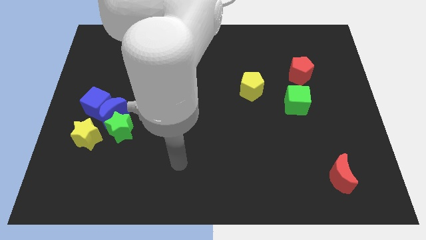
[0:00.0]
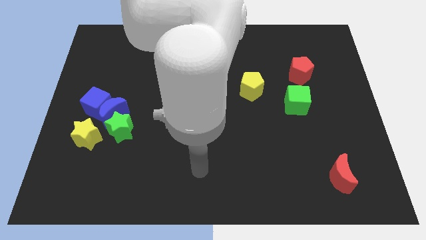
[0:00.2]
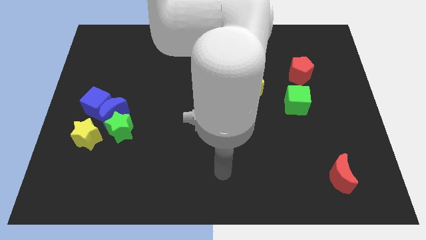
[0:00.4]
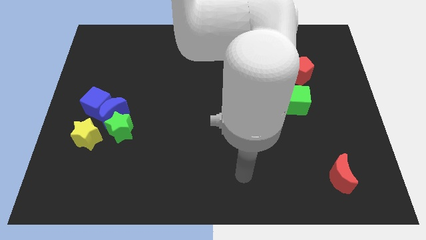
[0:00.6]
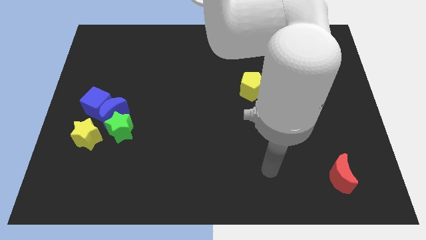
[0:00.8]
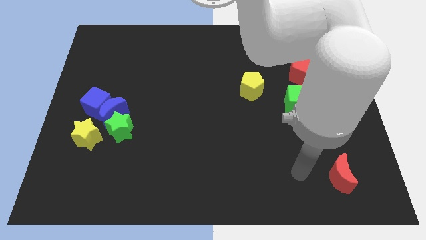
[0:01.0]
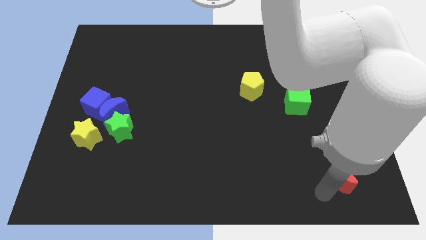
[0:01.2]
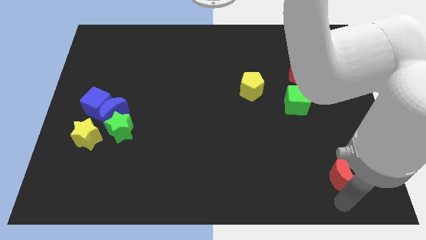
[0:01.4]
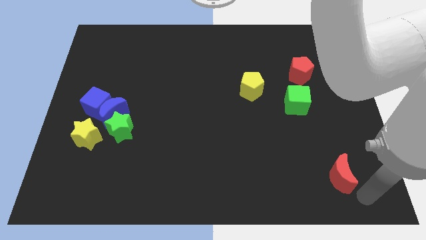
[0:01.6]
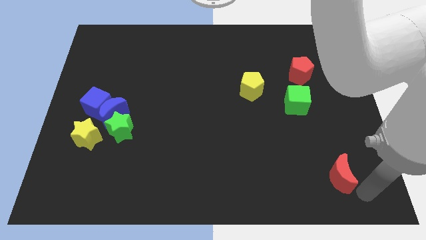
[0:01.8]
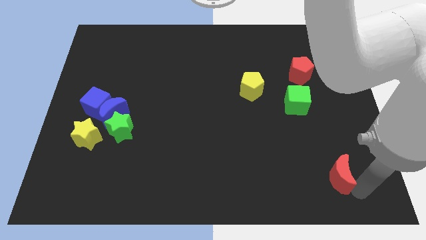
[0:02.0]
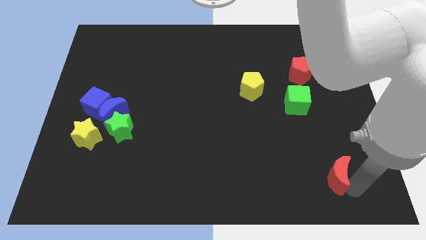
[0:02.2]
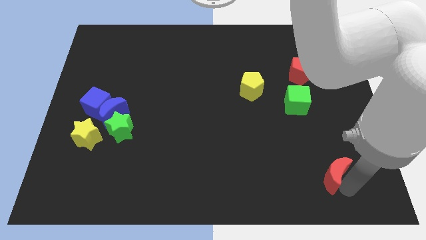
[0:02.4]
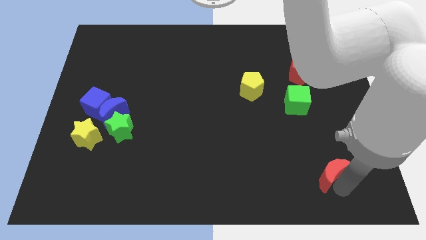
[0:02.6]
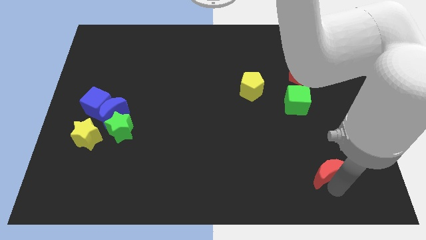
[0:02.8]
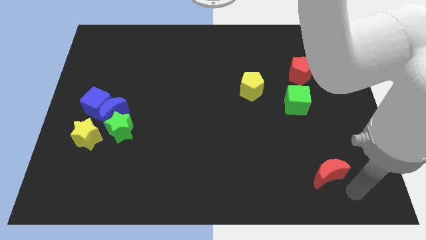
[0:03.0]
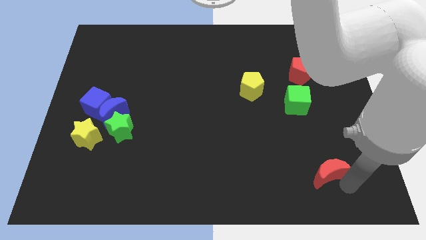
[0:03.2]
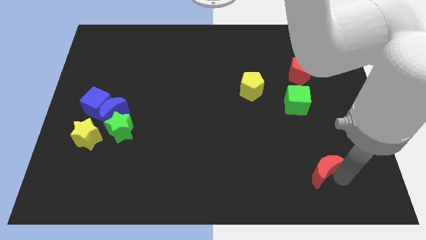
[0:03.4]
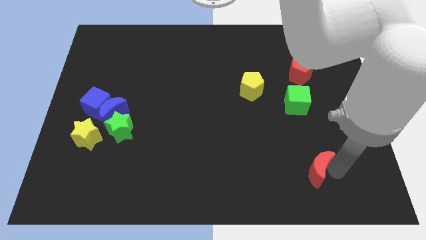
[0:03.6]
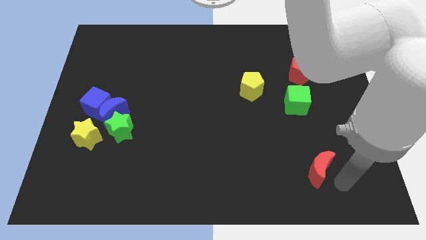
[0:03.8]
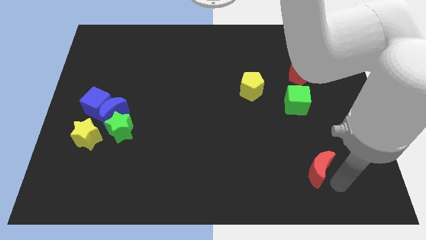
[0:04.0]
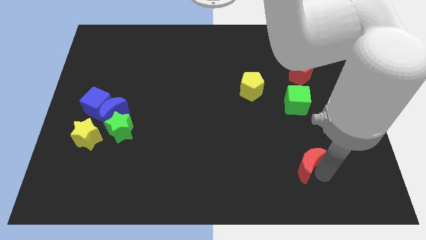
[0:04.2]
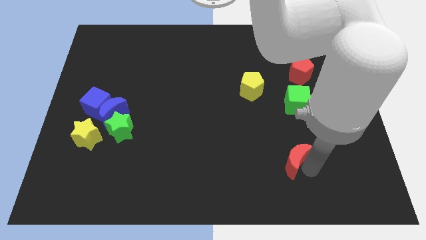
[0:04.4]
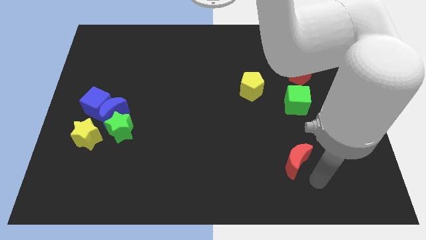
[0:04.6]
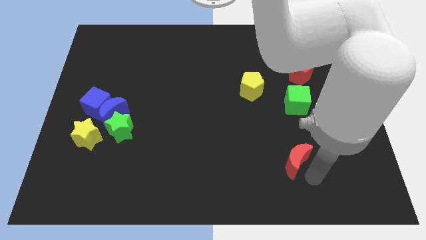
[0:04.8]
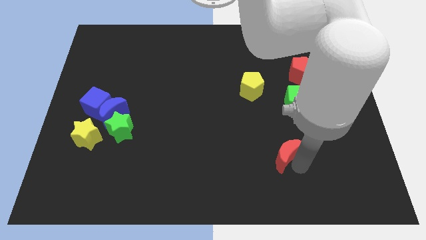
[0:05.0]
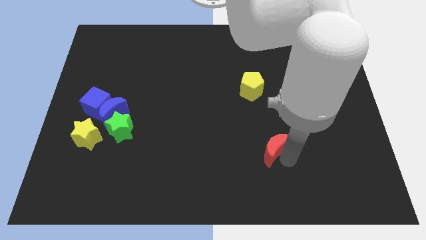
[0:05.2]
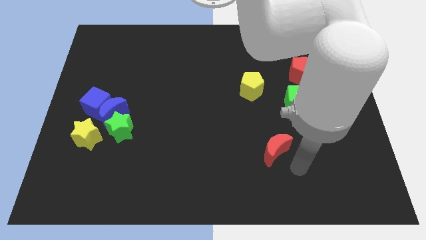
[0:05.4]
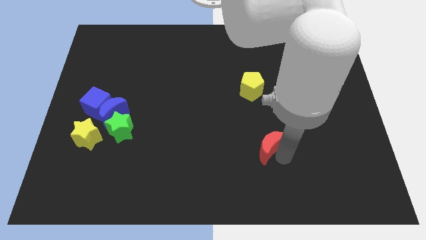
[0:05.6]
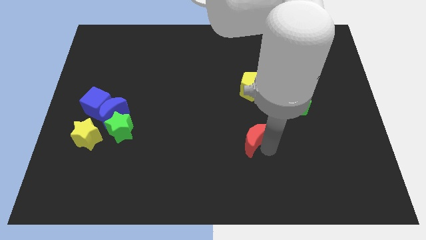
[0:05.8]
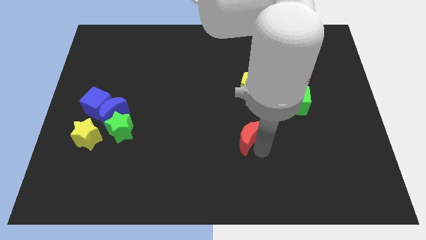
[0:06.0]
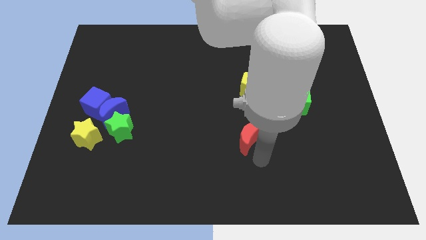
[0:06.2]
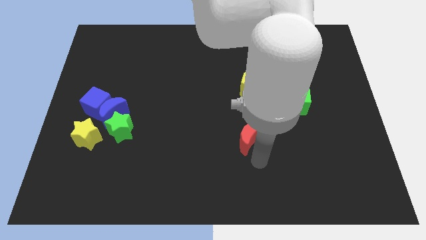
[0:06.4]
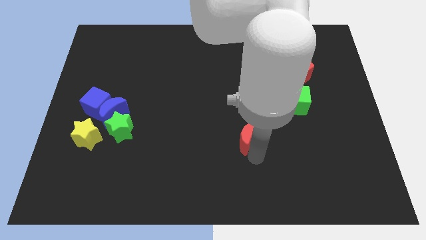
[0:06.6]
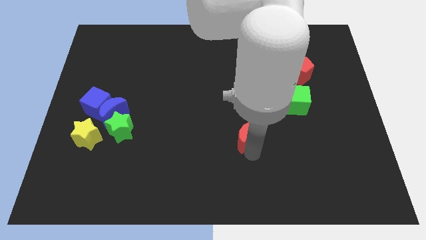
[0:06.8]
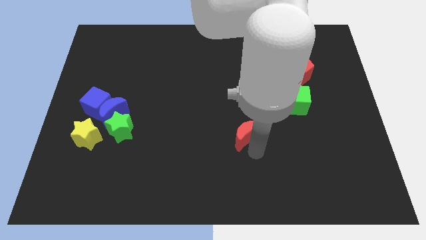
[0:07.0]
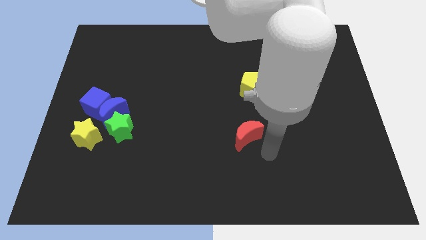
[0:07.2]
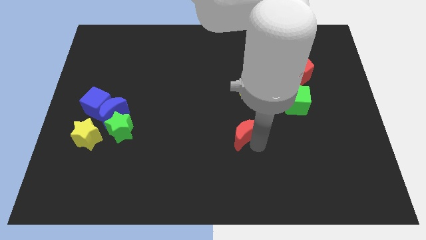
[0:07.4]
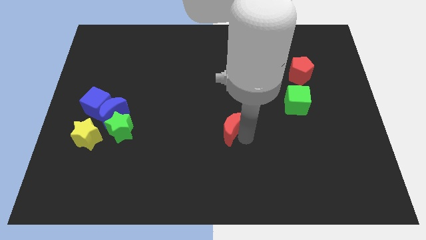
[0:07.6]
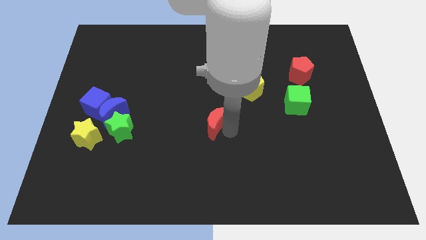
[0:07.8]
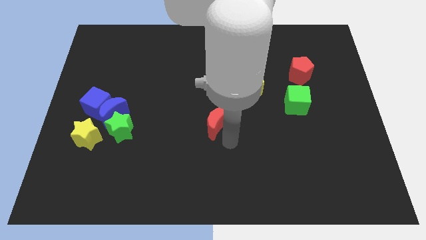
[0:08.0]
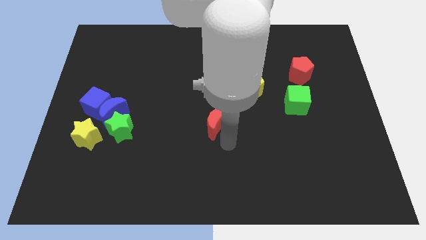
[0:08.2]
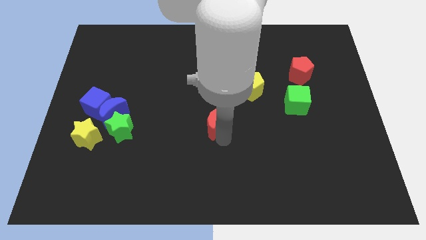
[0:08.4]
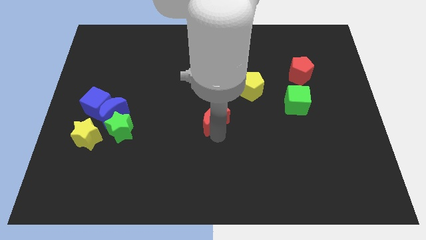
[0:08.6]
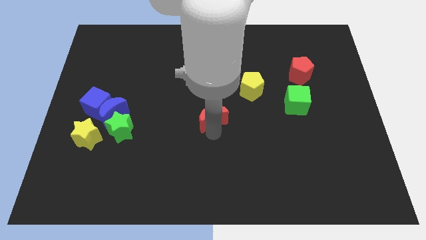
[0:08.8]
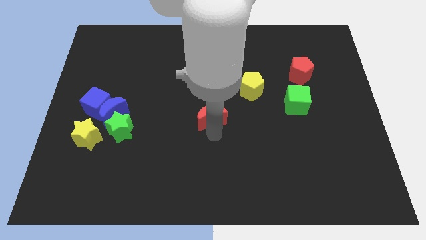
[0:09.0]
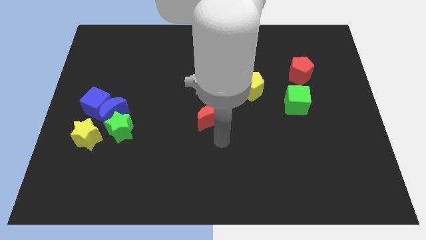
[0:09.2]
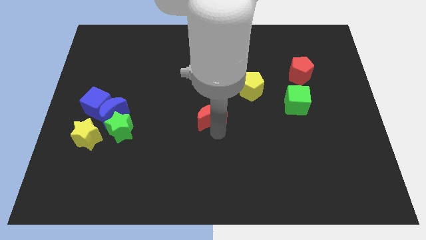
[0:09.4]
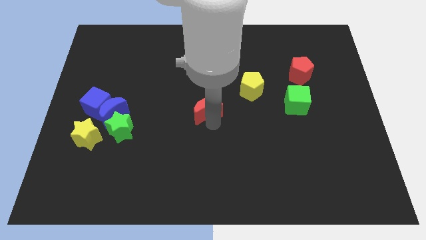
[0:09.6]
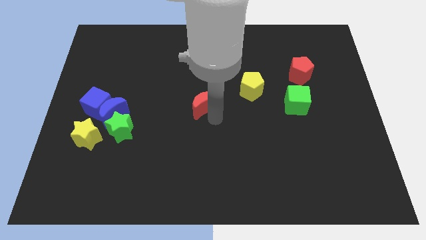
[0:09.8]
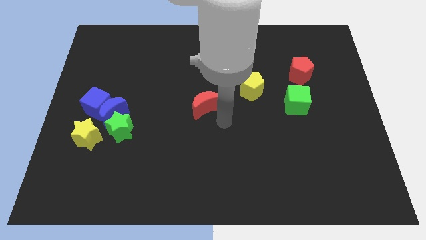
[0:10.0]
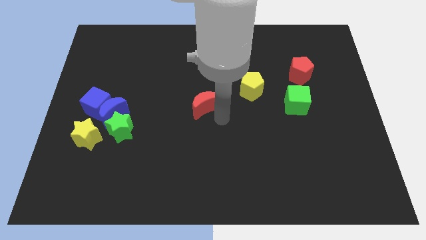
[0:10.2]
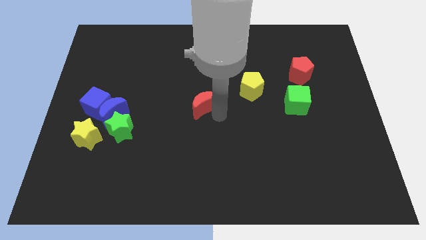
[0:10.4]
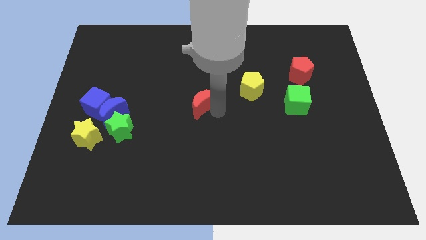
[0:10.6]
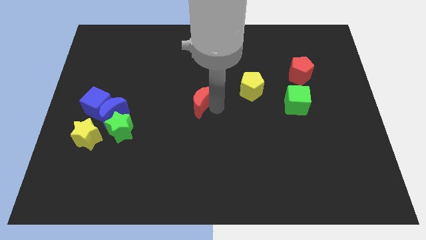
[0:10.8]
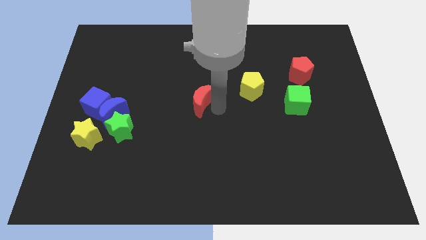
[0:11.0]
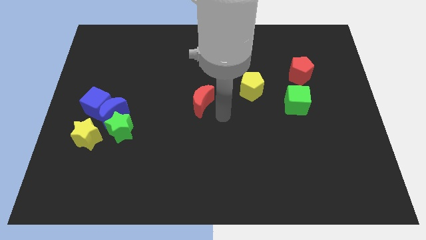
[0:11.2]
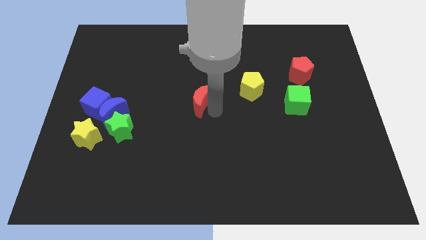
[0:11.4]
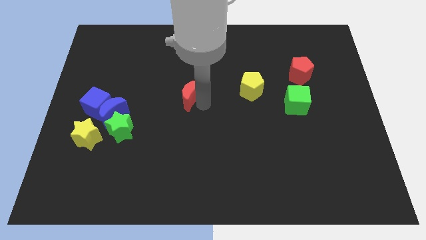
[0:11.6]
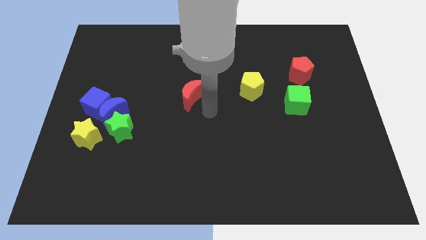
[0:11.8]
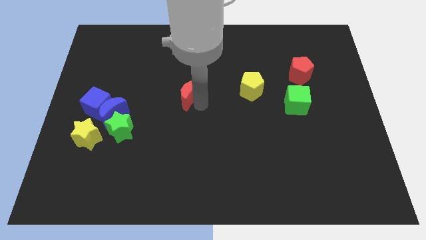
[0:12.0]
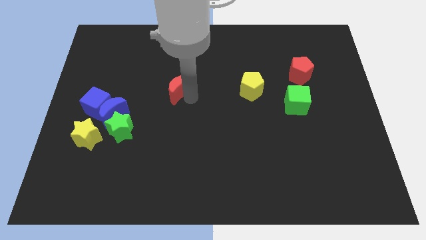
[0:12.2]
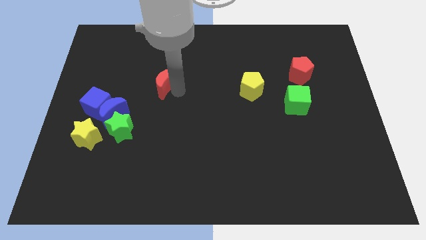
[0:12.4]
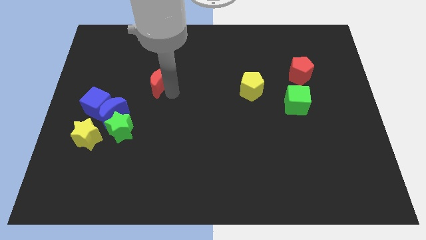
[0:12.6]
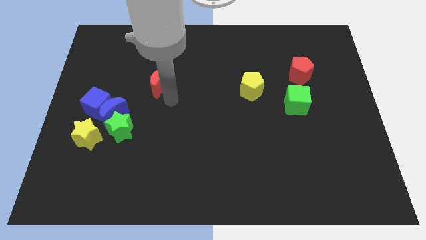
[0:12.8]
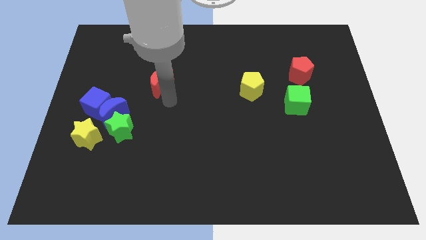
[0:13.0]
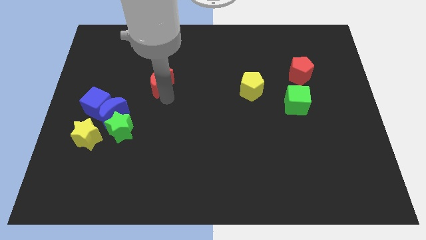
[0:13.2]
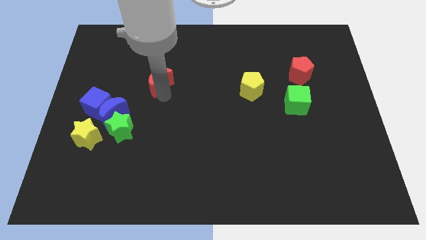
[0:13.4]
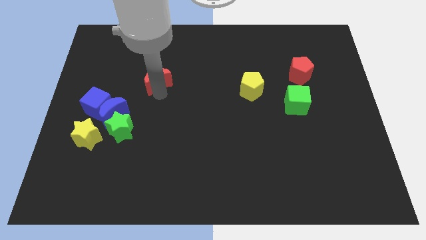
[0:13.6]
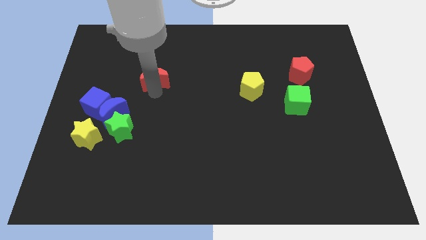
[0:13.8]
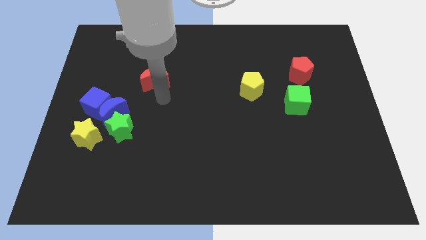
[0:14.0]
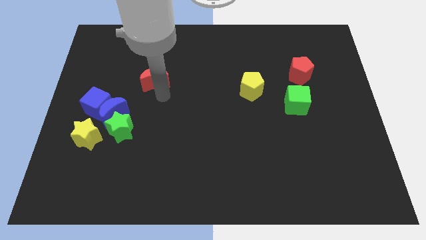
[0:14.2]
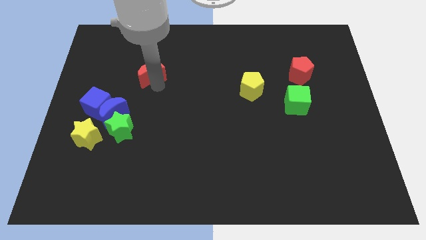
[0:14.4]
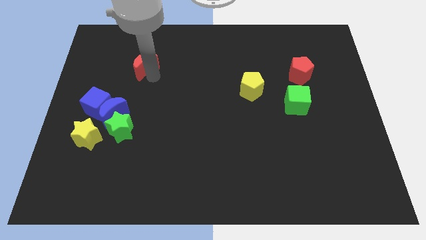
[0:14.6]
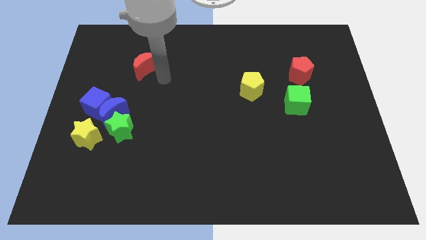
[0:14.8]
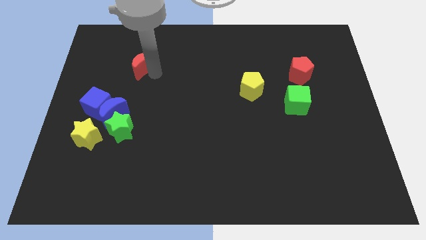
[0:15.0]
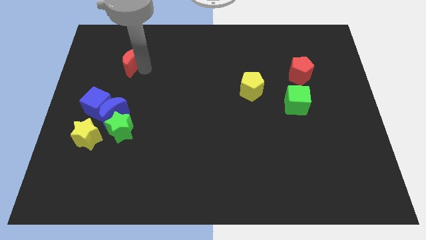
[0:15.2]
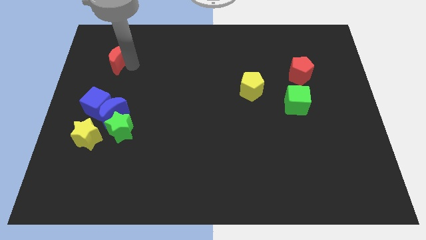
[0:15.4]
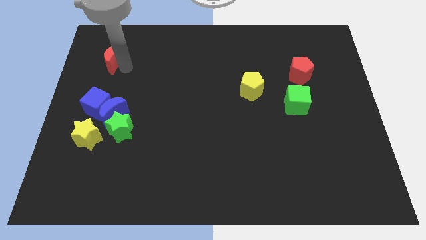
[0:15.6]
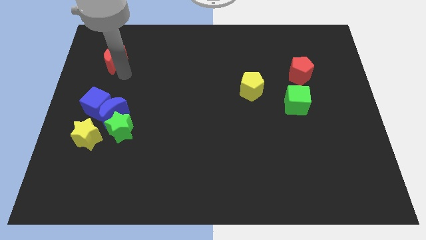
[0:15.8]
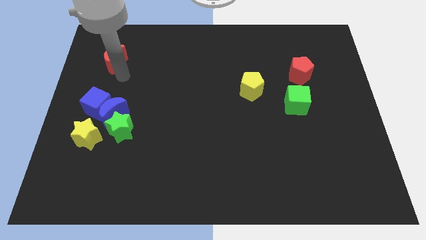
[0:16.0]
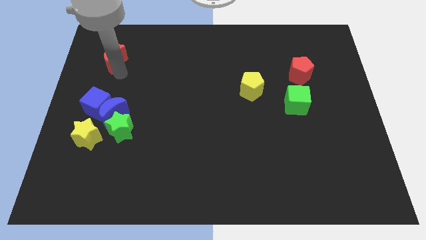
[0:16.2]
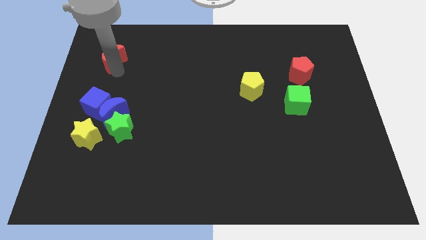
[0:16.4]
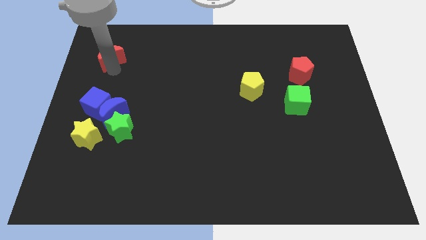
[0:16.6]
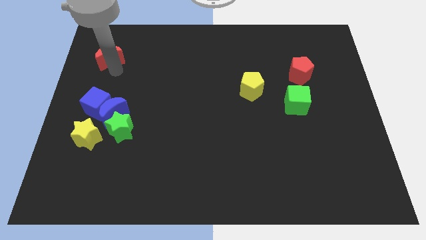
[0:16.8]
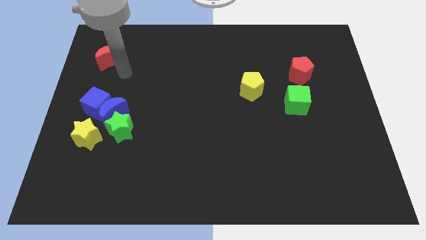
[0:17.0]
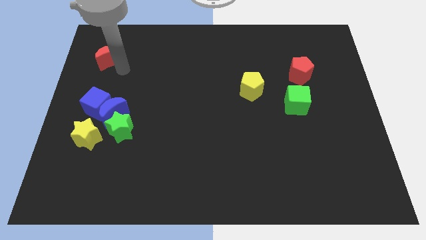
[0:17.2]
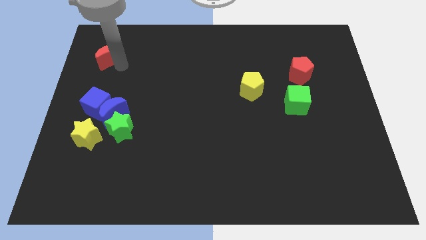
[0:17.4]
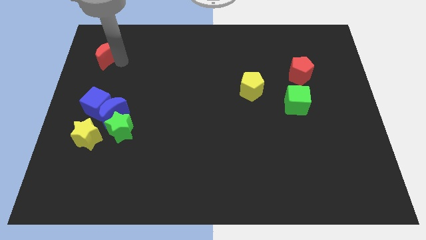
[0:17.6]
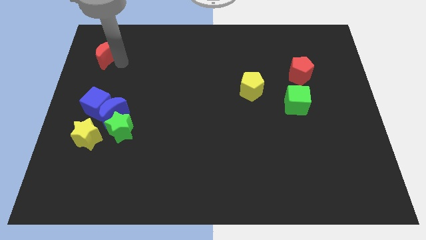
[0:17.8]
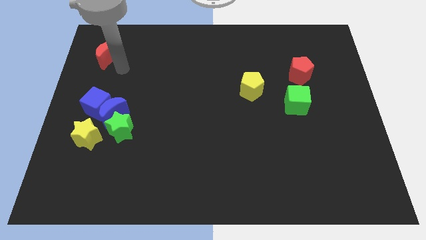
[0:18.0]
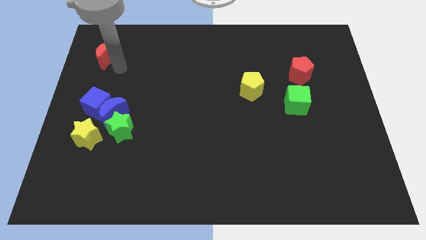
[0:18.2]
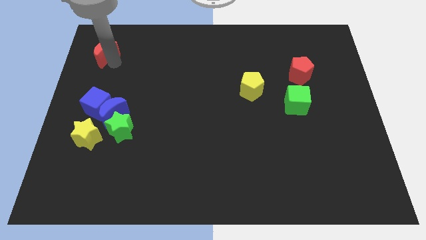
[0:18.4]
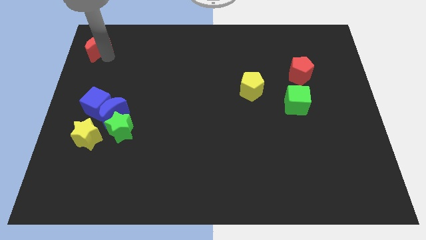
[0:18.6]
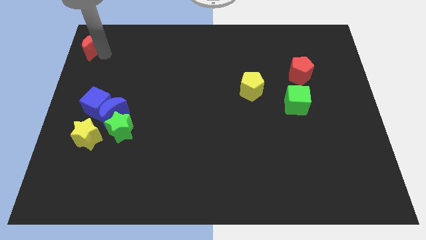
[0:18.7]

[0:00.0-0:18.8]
push the red moon to the upper left corner
